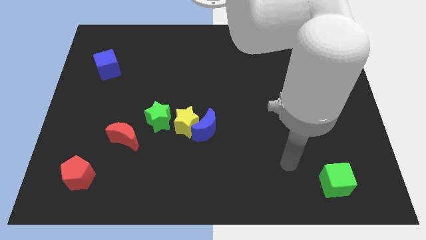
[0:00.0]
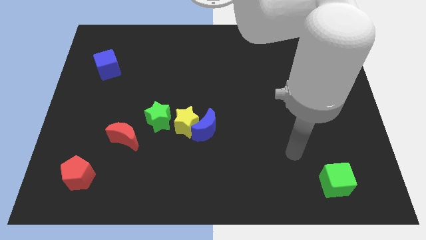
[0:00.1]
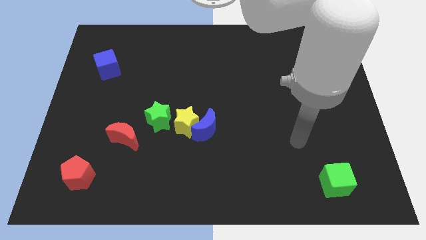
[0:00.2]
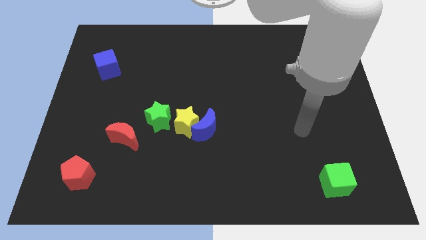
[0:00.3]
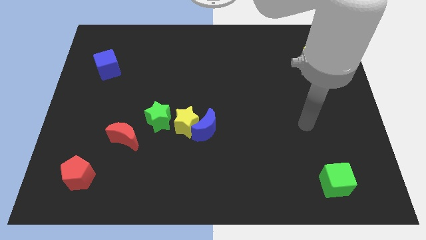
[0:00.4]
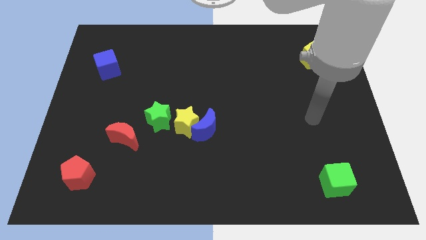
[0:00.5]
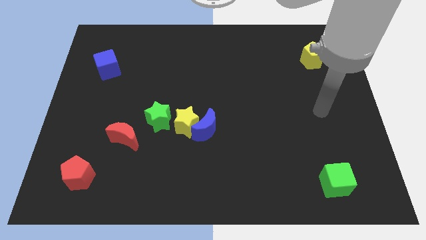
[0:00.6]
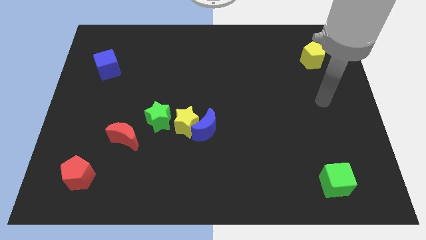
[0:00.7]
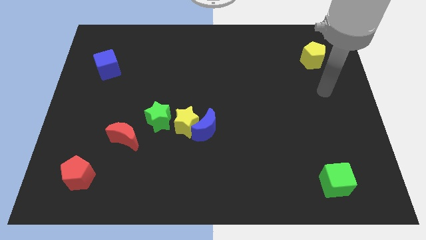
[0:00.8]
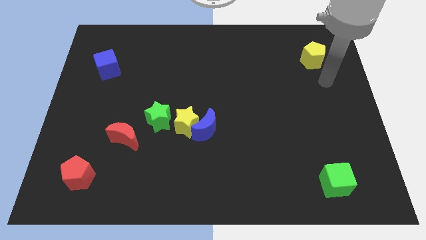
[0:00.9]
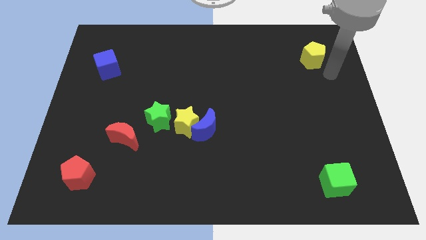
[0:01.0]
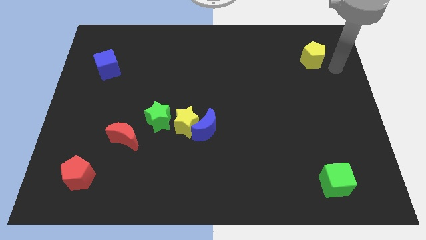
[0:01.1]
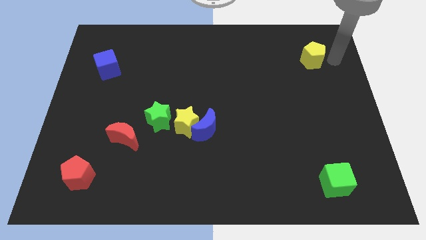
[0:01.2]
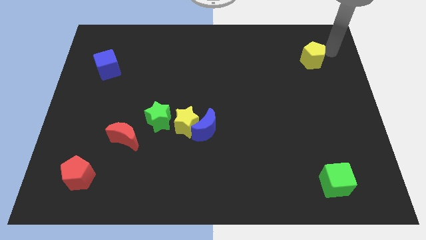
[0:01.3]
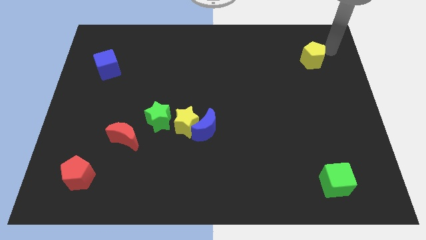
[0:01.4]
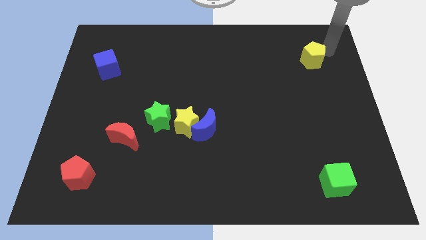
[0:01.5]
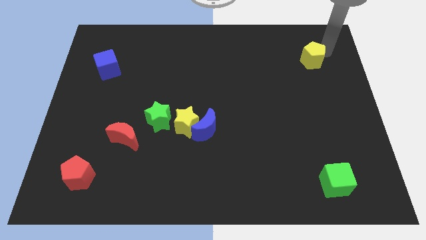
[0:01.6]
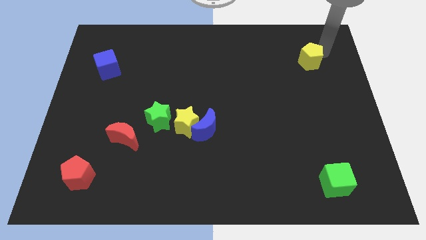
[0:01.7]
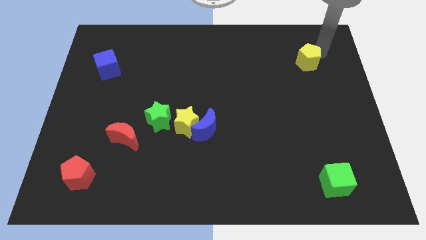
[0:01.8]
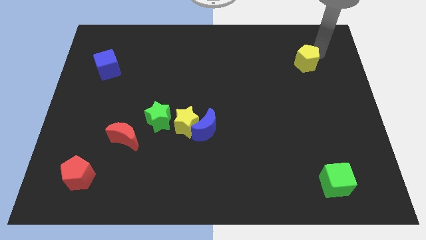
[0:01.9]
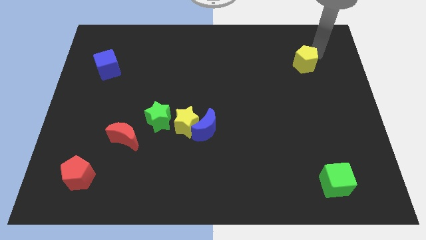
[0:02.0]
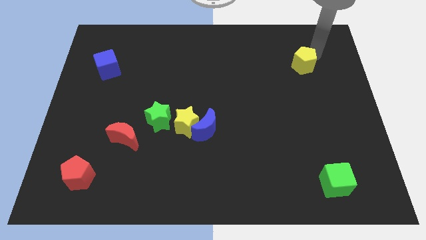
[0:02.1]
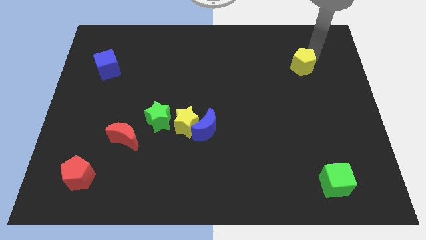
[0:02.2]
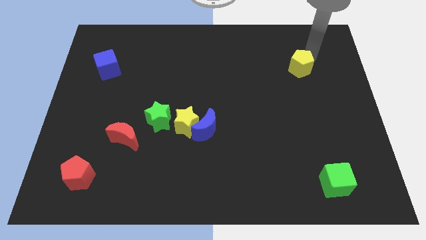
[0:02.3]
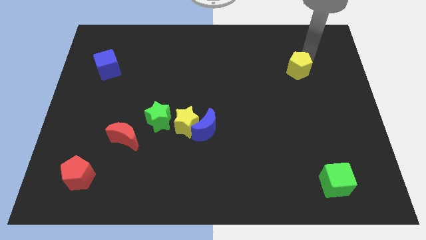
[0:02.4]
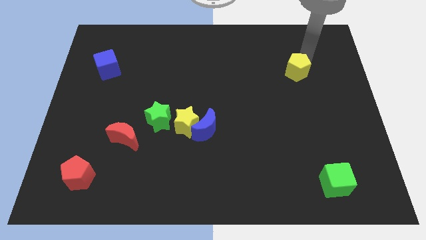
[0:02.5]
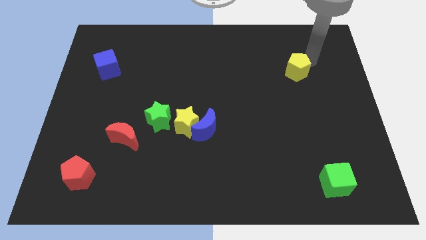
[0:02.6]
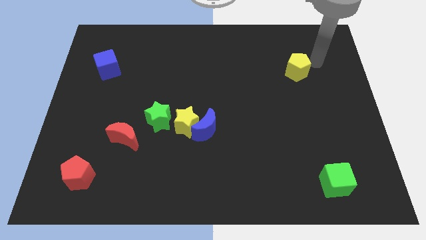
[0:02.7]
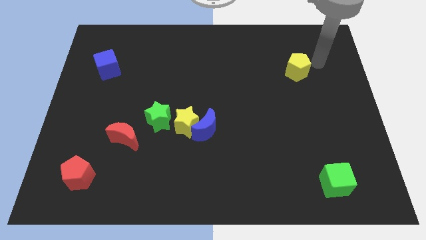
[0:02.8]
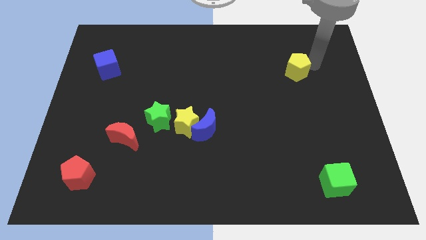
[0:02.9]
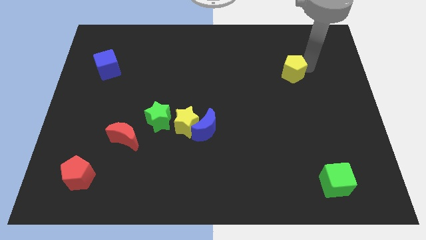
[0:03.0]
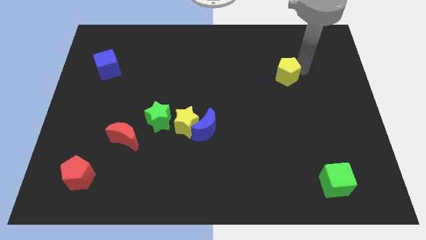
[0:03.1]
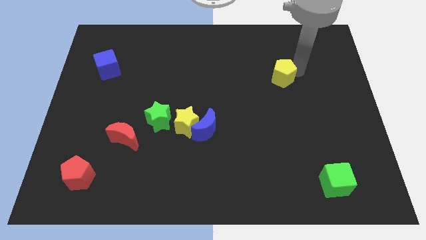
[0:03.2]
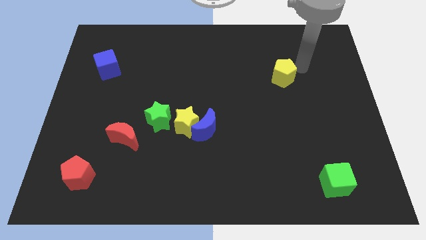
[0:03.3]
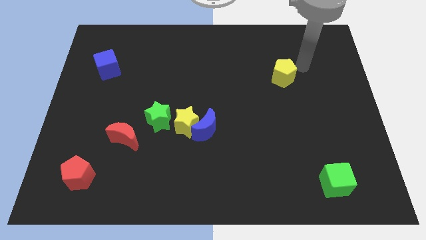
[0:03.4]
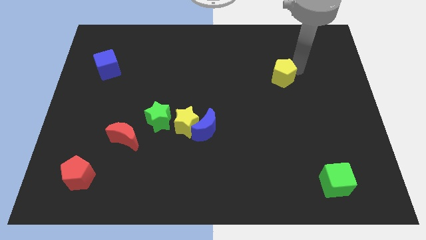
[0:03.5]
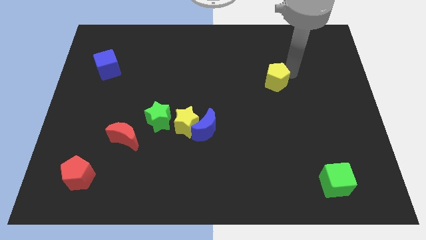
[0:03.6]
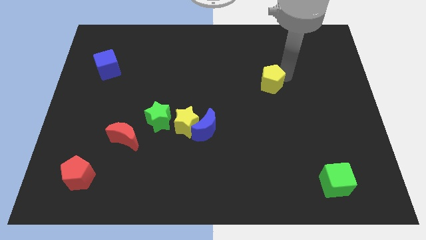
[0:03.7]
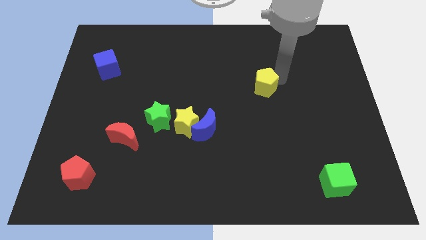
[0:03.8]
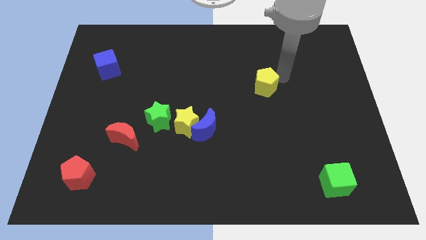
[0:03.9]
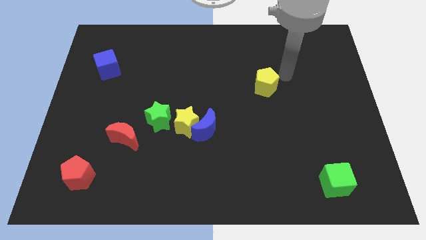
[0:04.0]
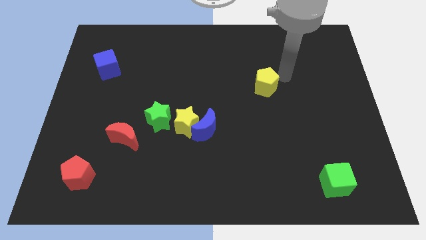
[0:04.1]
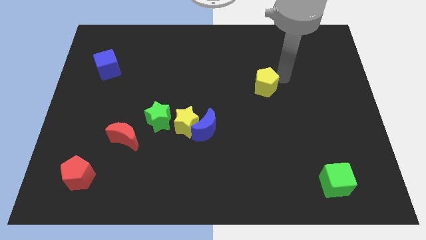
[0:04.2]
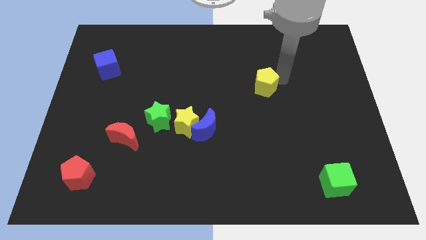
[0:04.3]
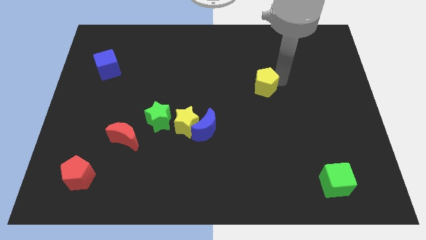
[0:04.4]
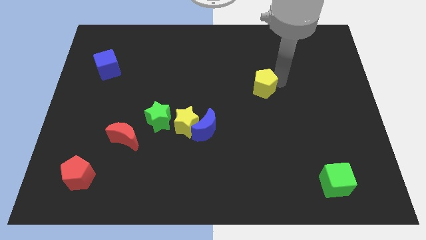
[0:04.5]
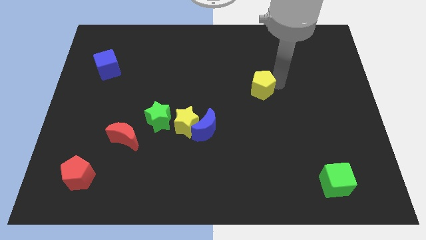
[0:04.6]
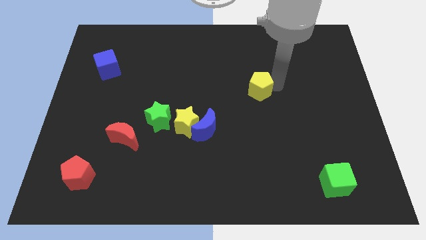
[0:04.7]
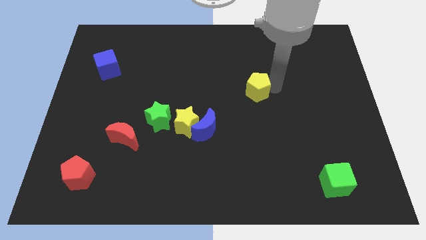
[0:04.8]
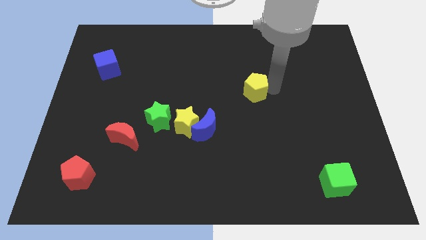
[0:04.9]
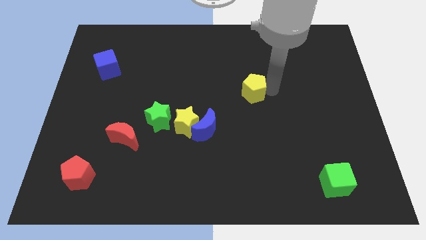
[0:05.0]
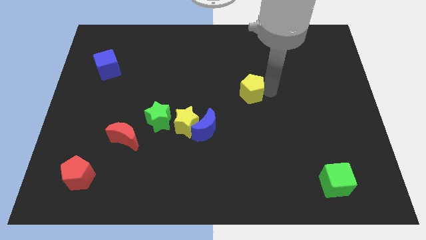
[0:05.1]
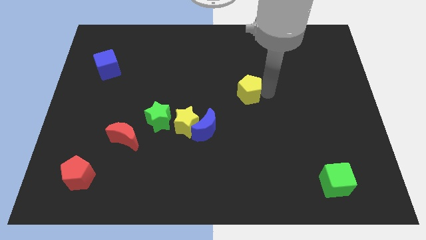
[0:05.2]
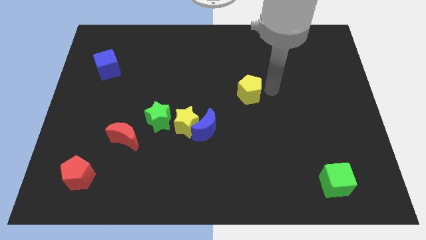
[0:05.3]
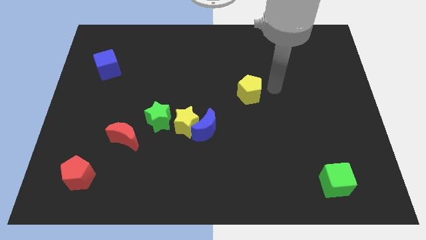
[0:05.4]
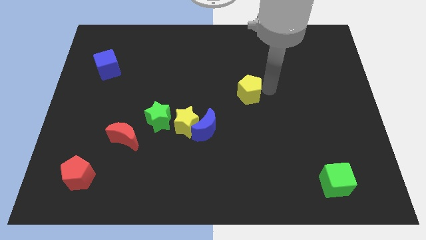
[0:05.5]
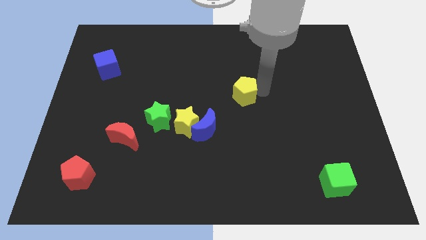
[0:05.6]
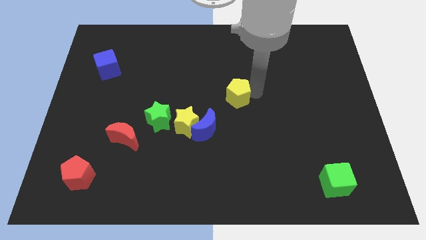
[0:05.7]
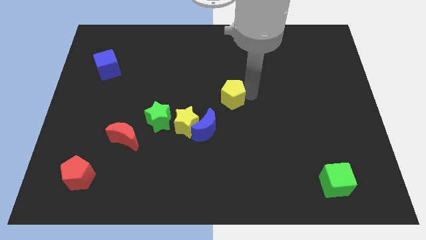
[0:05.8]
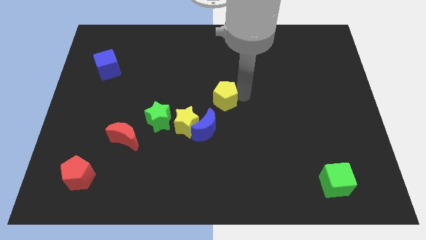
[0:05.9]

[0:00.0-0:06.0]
slide the yellow pentagon to the top right side of the yellow star

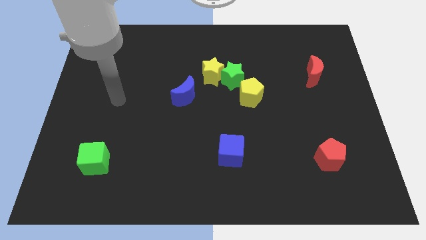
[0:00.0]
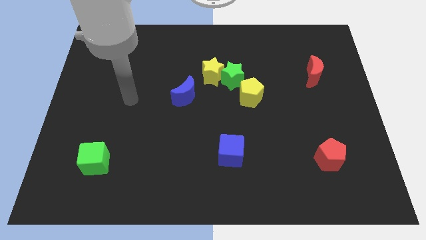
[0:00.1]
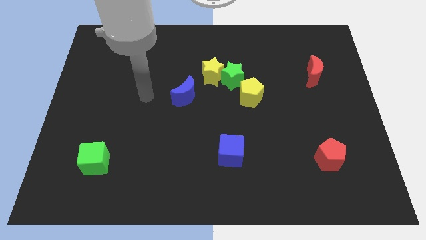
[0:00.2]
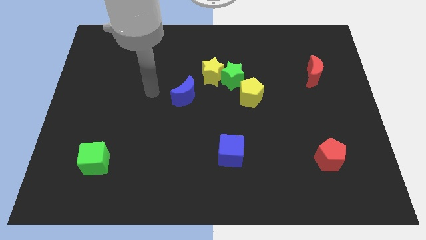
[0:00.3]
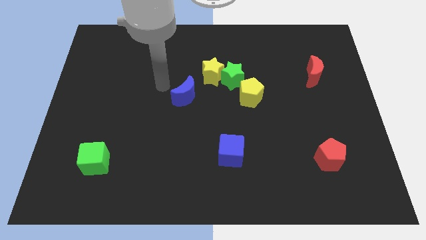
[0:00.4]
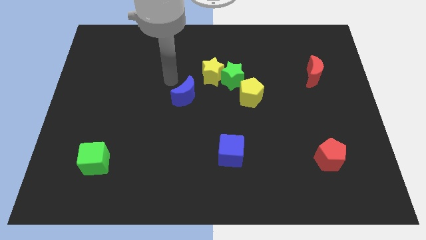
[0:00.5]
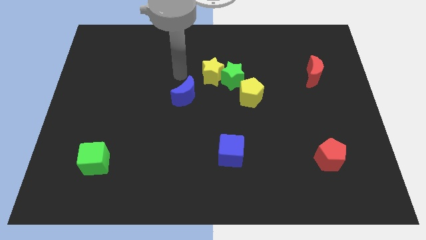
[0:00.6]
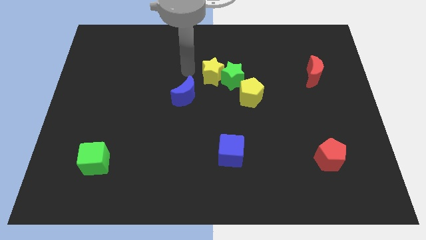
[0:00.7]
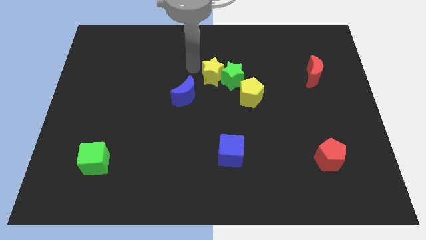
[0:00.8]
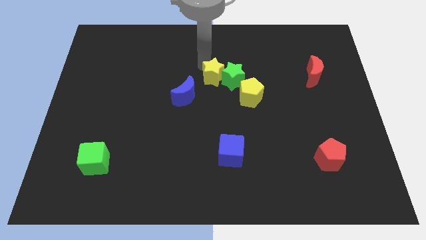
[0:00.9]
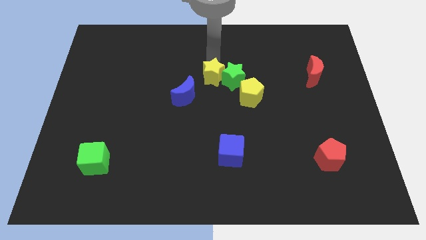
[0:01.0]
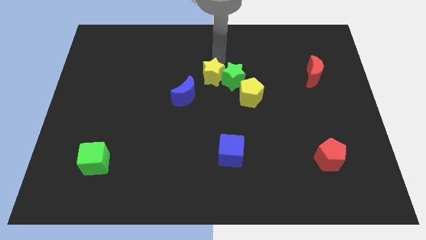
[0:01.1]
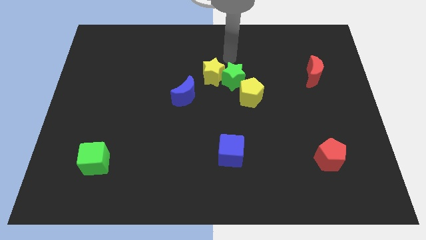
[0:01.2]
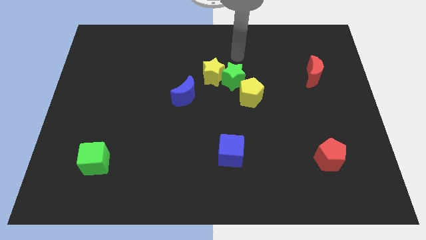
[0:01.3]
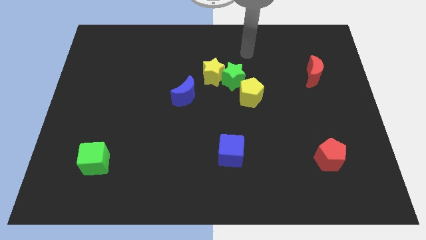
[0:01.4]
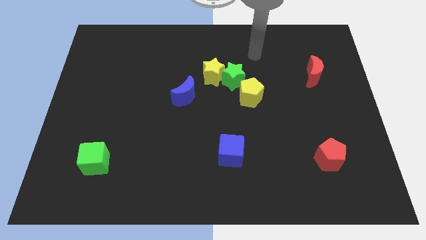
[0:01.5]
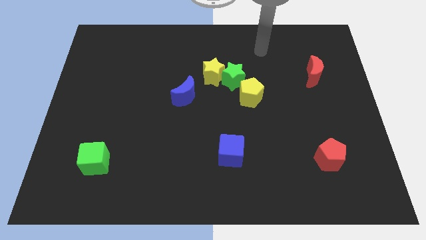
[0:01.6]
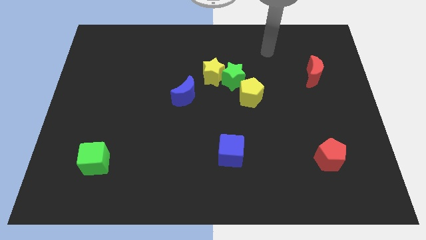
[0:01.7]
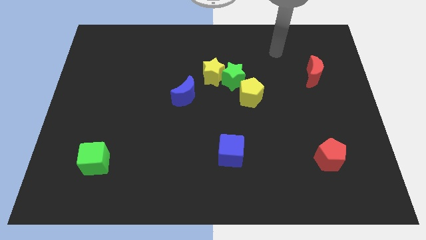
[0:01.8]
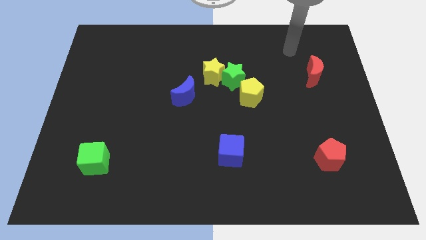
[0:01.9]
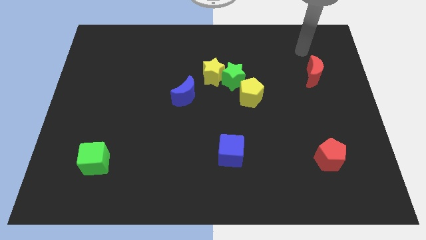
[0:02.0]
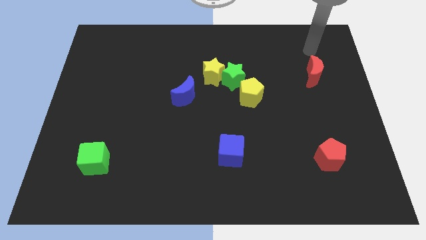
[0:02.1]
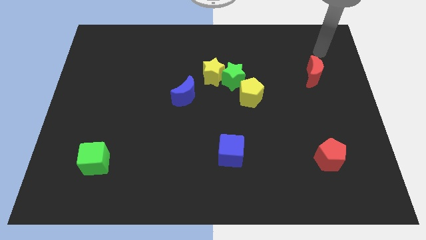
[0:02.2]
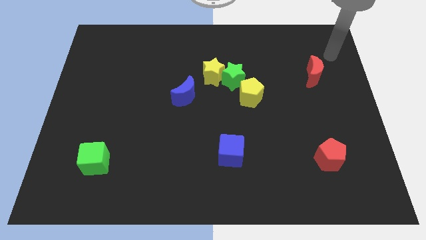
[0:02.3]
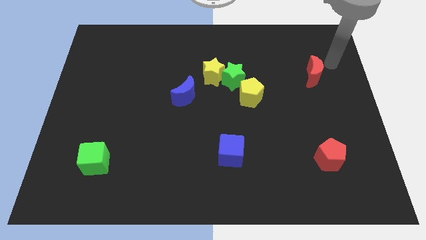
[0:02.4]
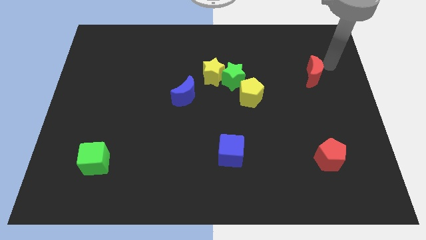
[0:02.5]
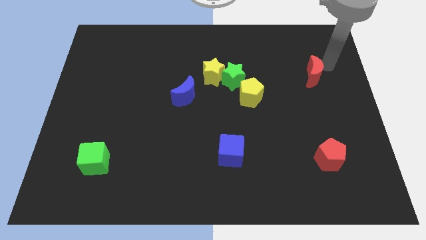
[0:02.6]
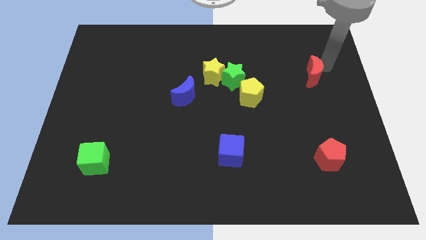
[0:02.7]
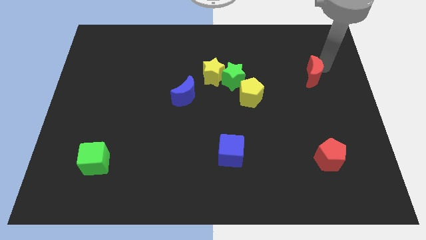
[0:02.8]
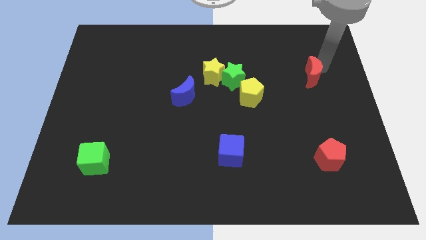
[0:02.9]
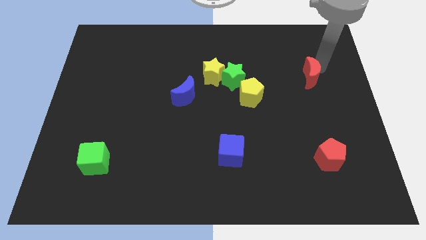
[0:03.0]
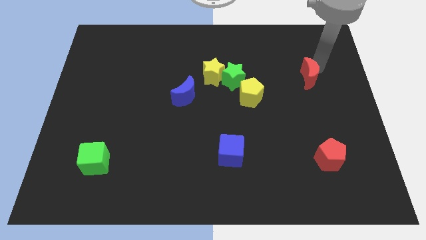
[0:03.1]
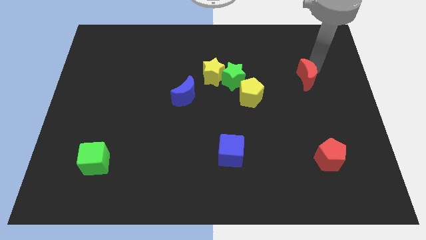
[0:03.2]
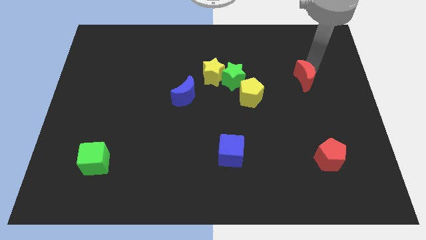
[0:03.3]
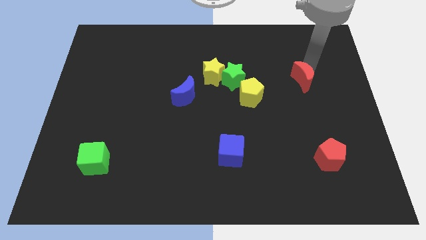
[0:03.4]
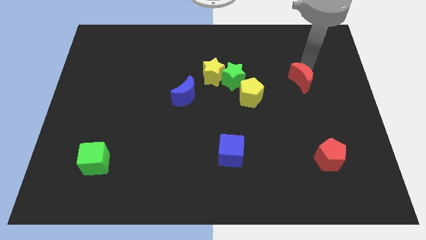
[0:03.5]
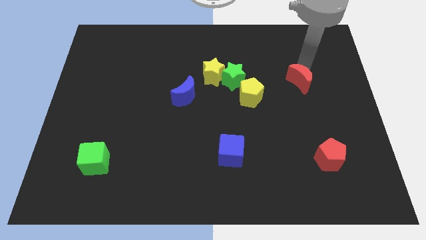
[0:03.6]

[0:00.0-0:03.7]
push the red moon right of the yellow pentagon
